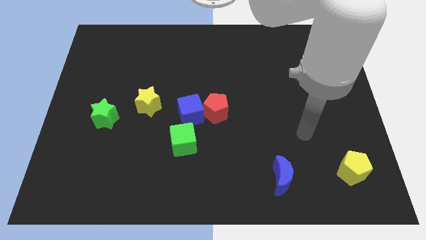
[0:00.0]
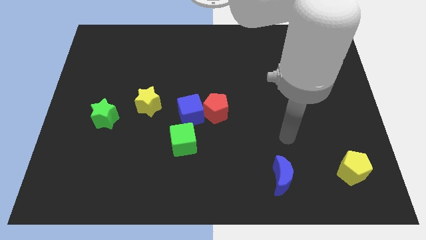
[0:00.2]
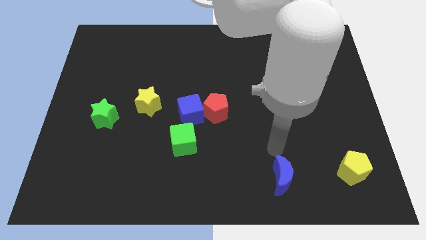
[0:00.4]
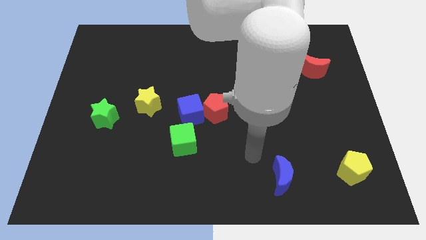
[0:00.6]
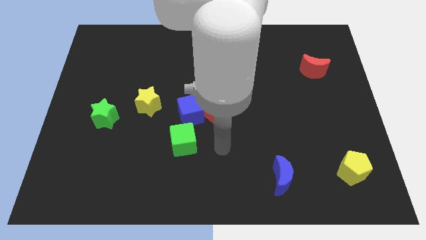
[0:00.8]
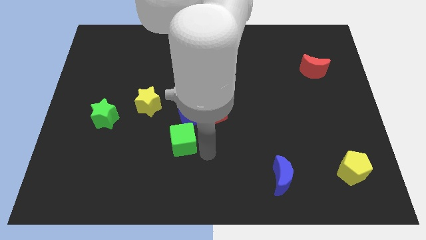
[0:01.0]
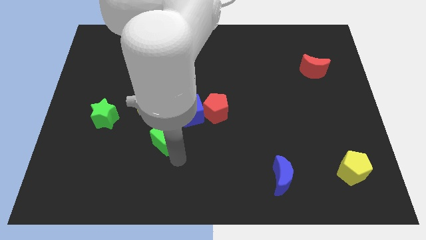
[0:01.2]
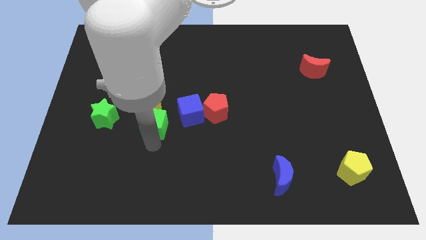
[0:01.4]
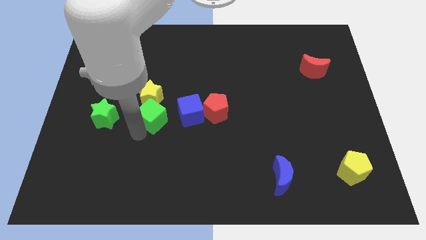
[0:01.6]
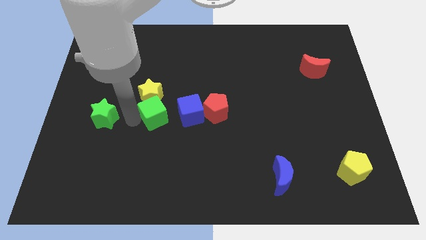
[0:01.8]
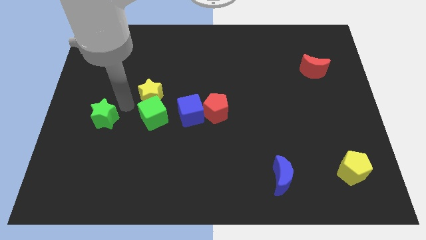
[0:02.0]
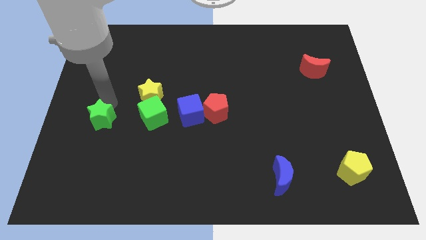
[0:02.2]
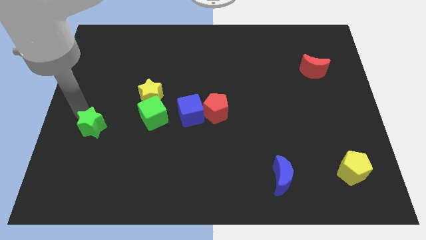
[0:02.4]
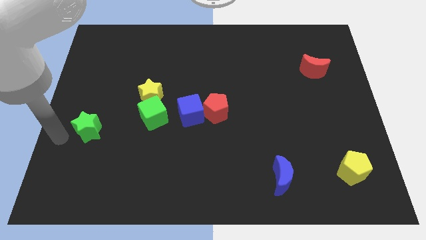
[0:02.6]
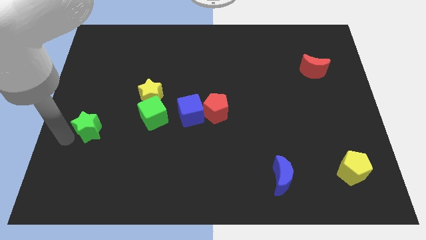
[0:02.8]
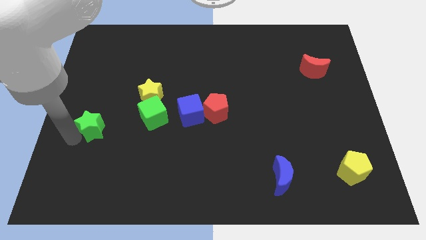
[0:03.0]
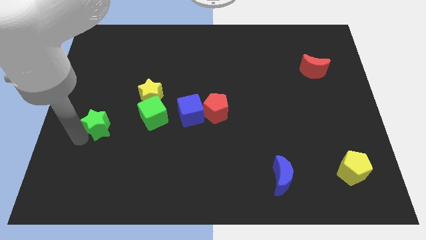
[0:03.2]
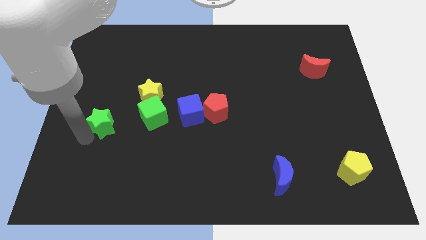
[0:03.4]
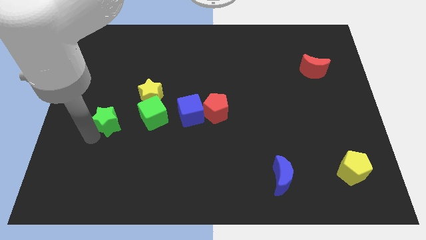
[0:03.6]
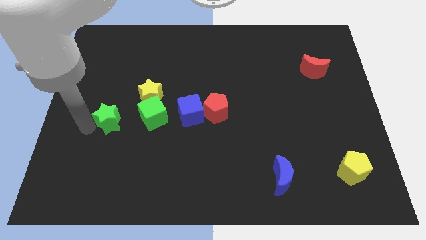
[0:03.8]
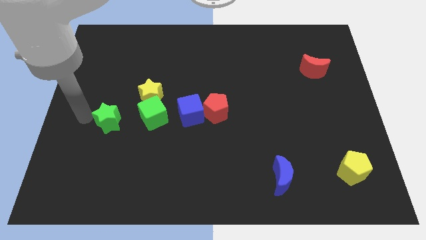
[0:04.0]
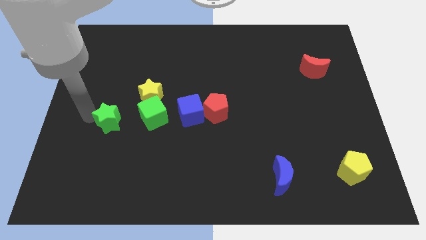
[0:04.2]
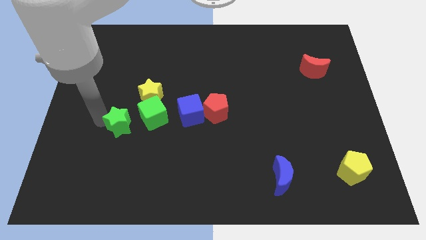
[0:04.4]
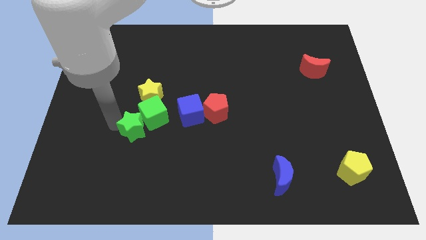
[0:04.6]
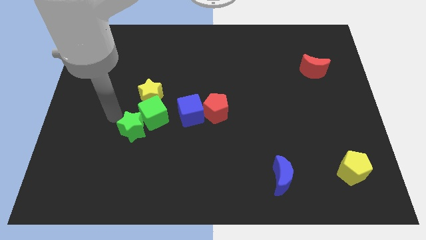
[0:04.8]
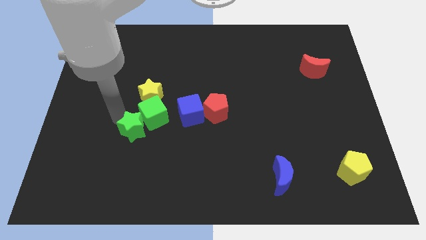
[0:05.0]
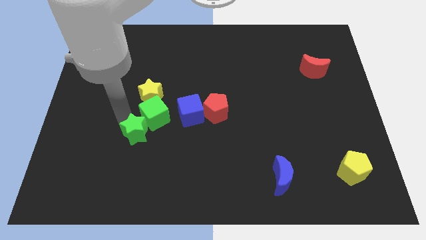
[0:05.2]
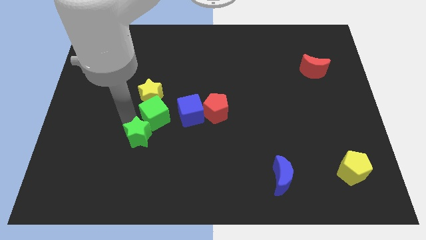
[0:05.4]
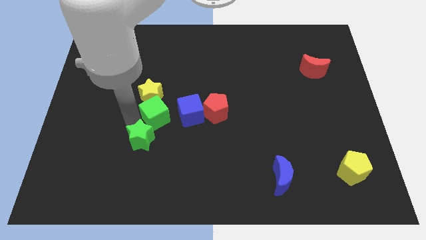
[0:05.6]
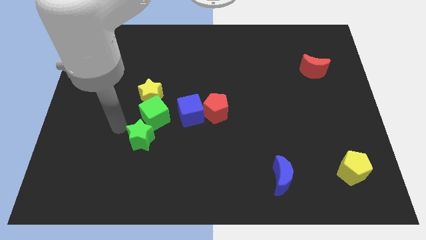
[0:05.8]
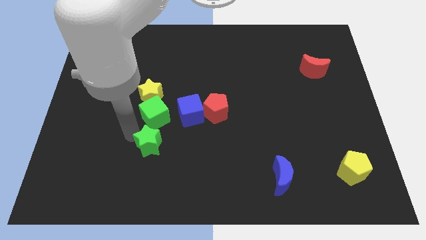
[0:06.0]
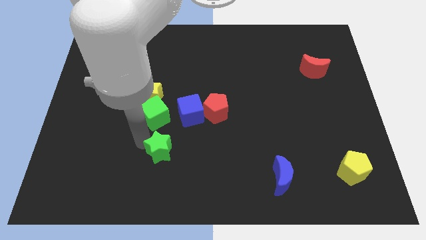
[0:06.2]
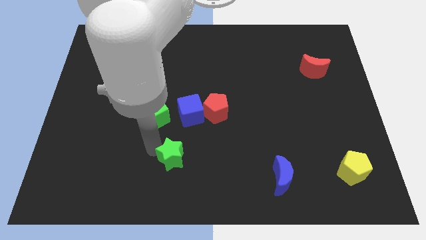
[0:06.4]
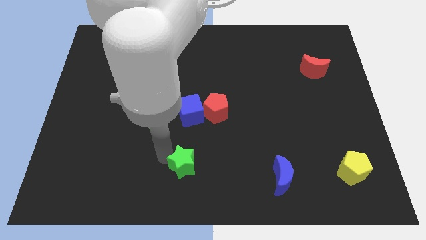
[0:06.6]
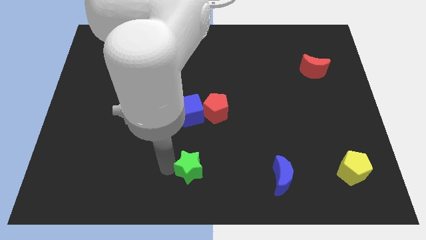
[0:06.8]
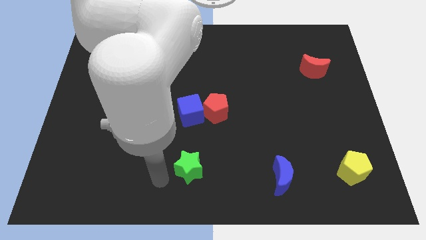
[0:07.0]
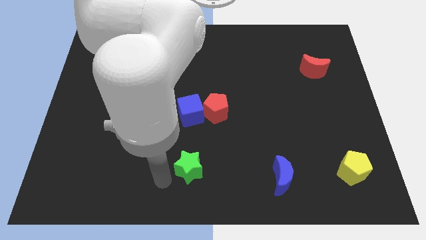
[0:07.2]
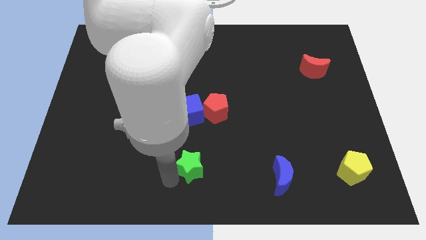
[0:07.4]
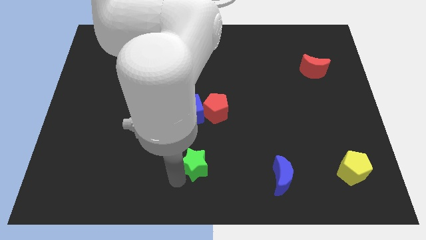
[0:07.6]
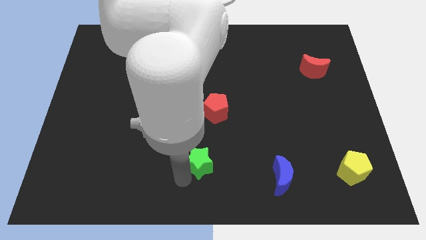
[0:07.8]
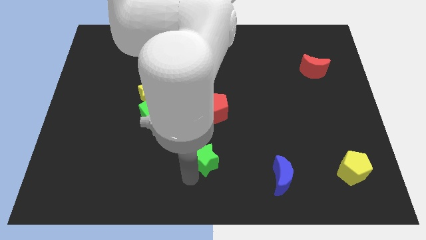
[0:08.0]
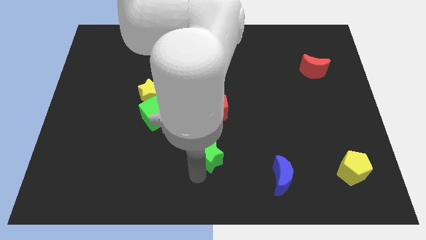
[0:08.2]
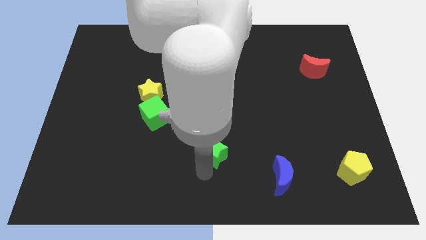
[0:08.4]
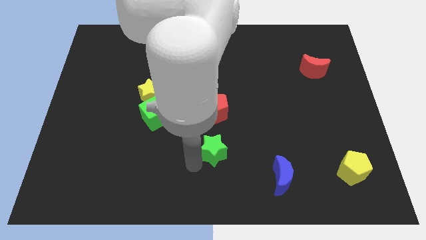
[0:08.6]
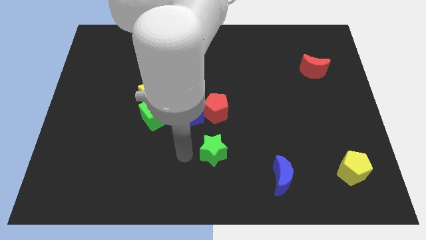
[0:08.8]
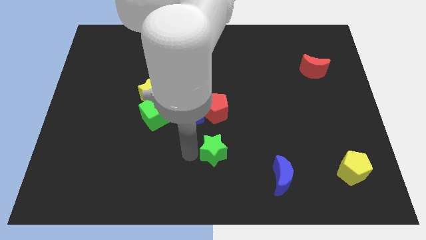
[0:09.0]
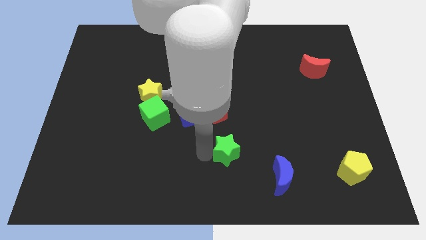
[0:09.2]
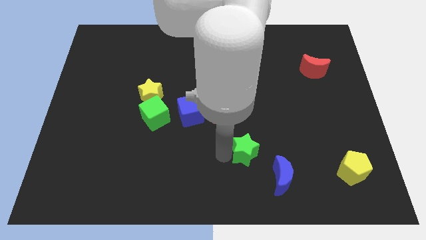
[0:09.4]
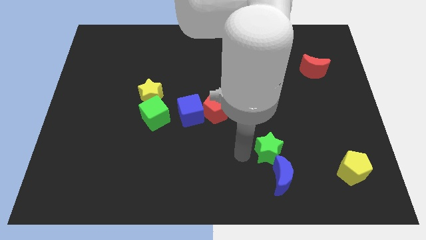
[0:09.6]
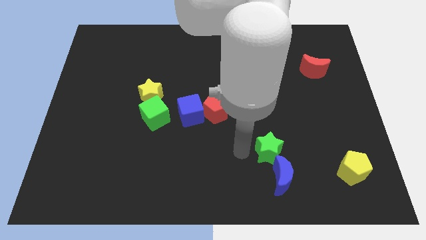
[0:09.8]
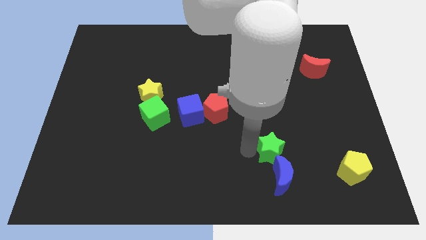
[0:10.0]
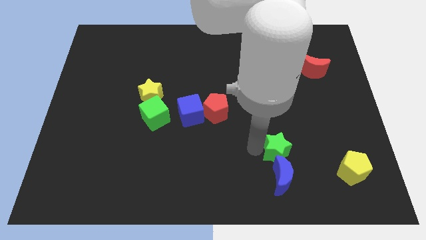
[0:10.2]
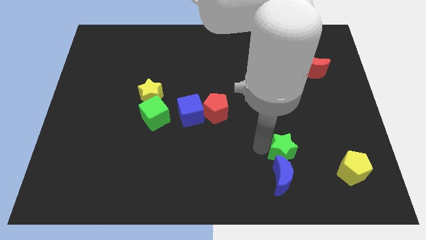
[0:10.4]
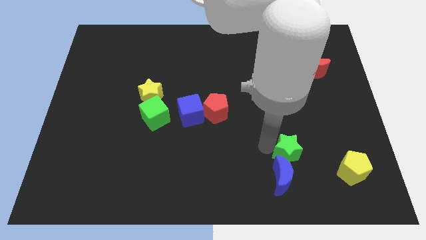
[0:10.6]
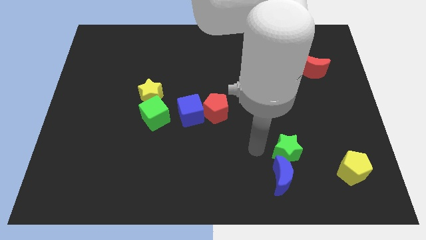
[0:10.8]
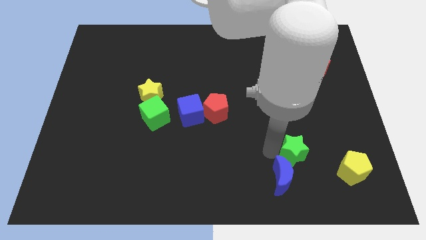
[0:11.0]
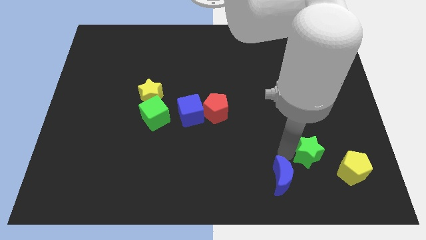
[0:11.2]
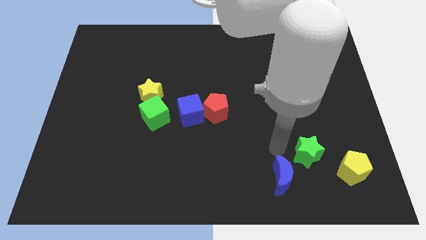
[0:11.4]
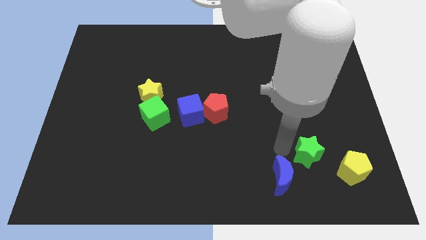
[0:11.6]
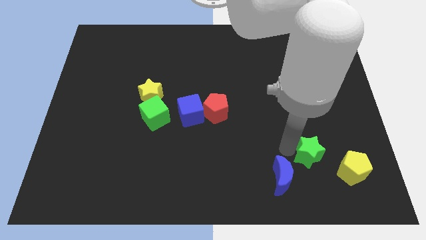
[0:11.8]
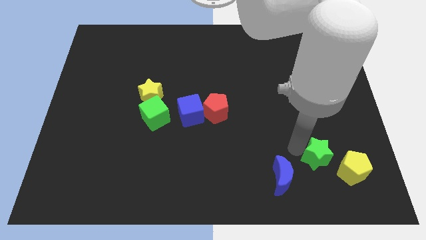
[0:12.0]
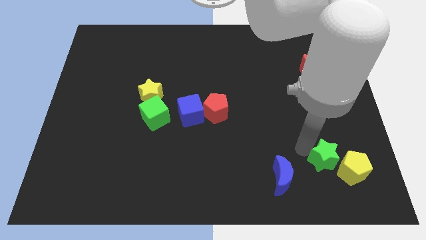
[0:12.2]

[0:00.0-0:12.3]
slide the green star towards the yellow pentagon
